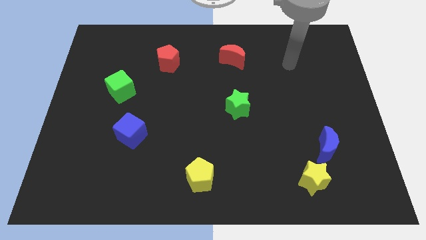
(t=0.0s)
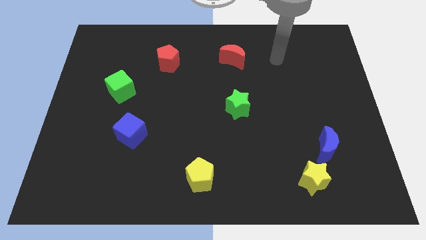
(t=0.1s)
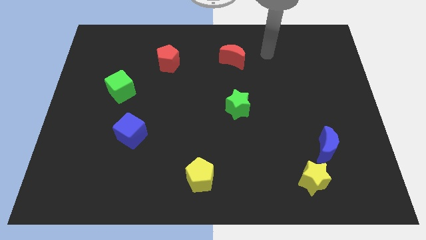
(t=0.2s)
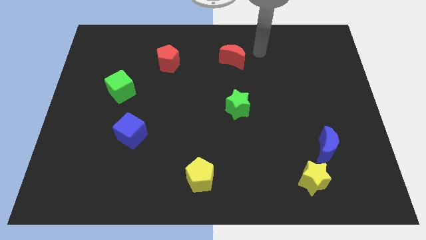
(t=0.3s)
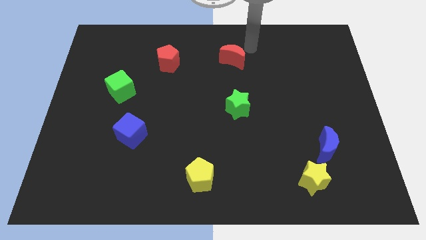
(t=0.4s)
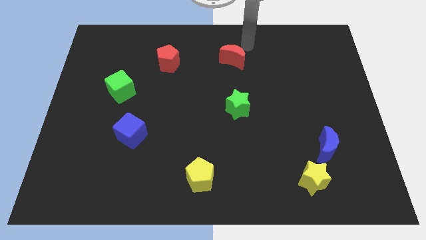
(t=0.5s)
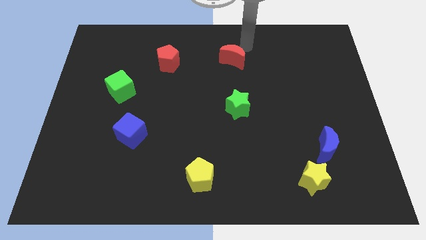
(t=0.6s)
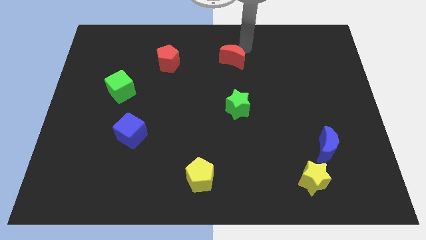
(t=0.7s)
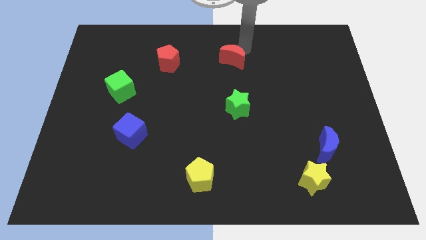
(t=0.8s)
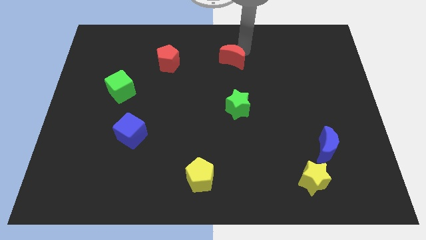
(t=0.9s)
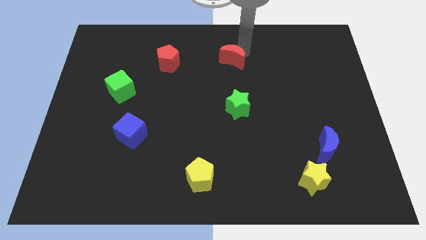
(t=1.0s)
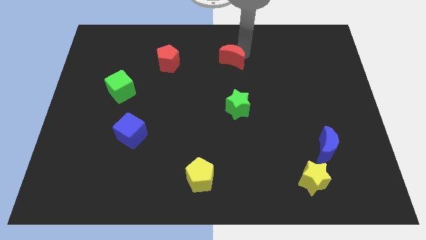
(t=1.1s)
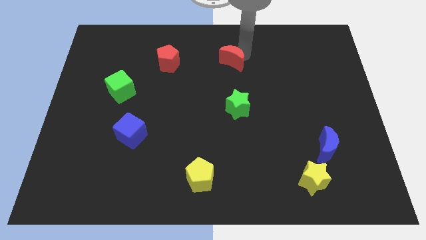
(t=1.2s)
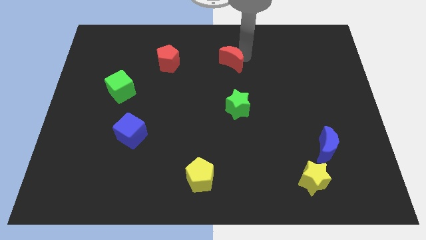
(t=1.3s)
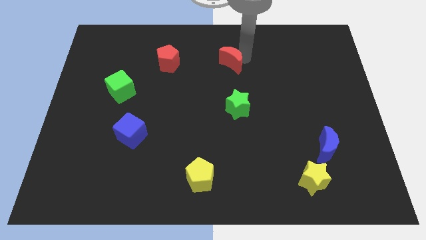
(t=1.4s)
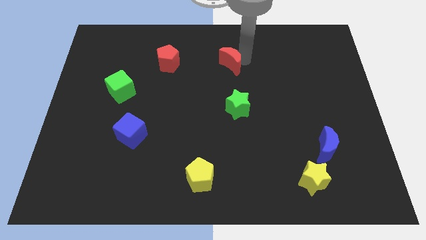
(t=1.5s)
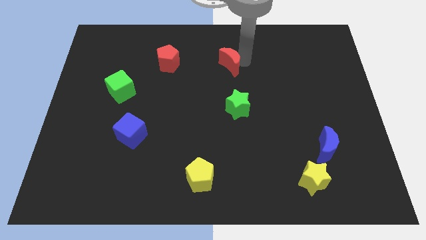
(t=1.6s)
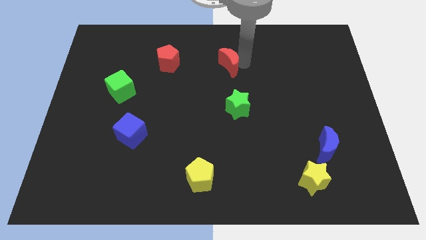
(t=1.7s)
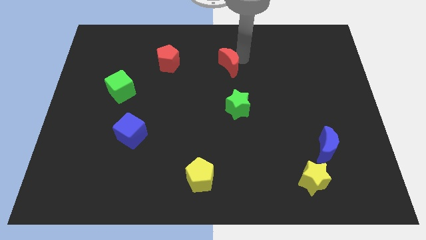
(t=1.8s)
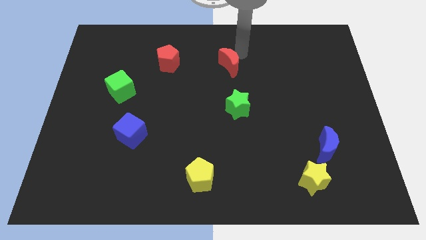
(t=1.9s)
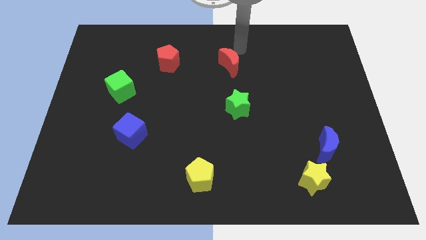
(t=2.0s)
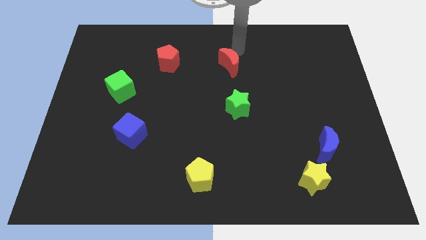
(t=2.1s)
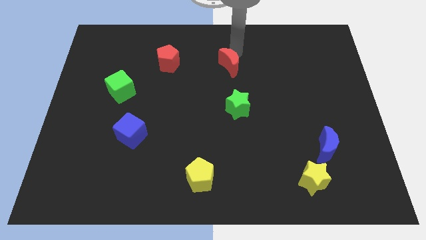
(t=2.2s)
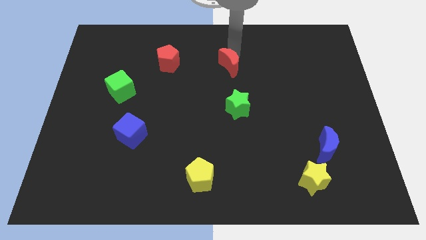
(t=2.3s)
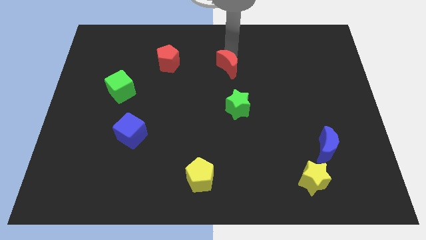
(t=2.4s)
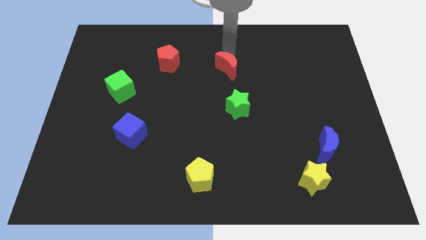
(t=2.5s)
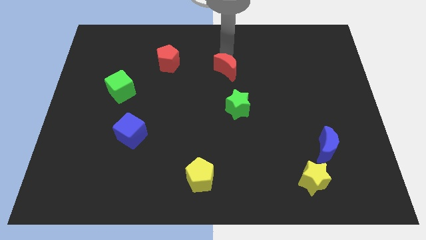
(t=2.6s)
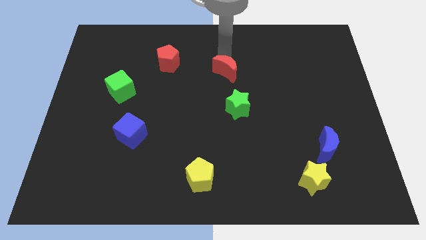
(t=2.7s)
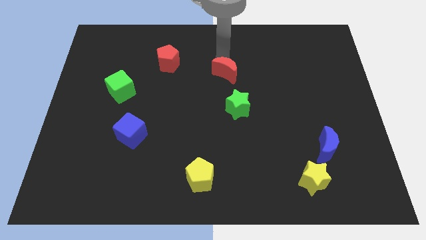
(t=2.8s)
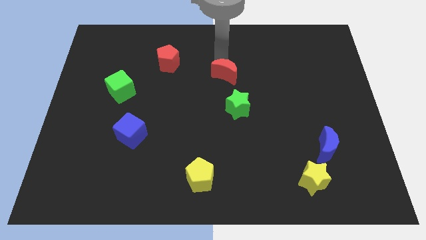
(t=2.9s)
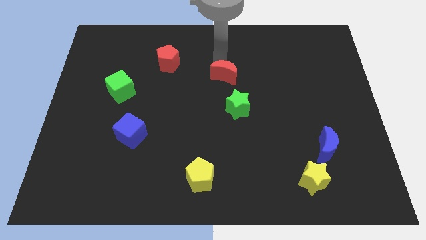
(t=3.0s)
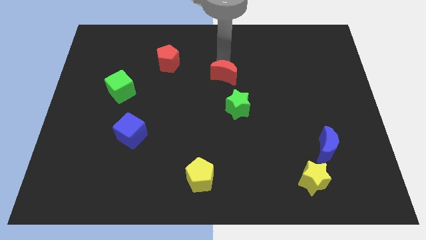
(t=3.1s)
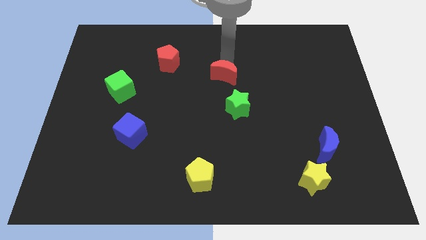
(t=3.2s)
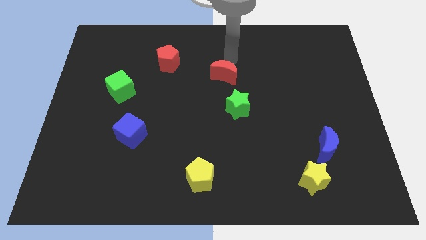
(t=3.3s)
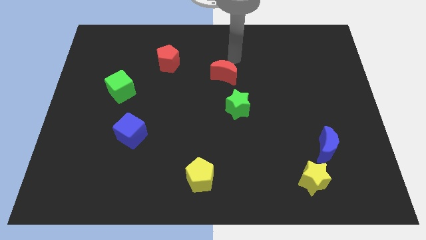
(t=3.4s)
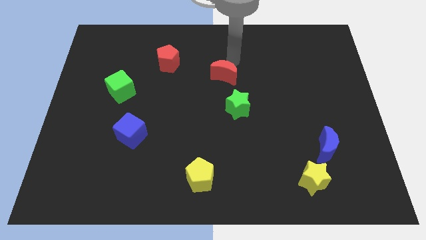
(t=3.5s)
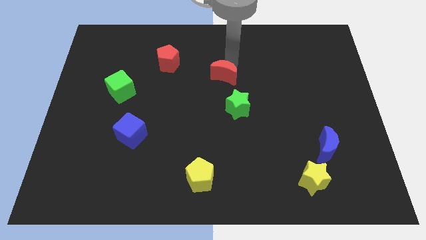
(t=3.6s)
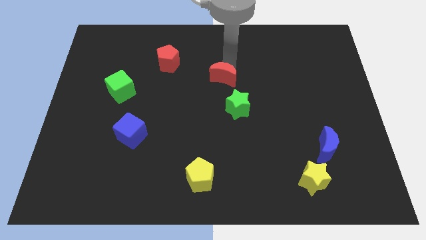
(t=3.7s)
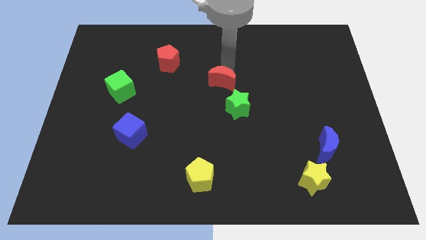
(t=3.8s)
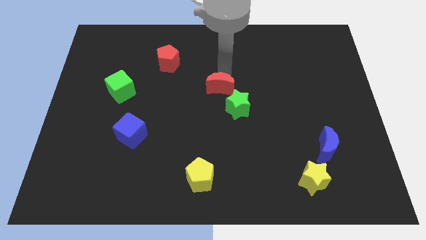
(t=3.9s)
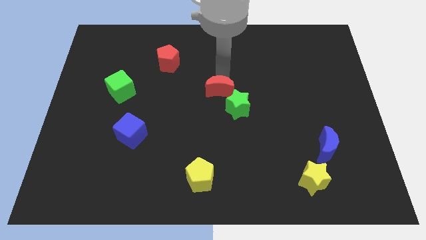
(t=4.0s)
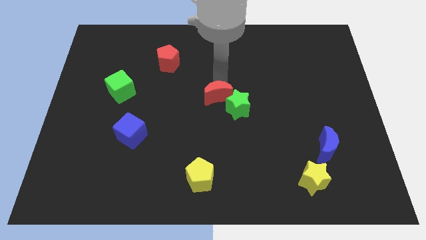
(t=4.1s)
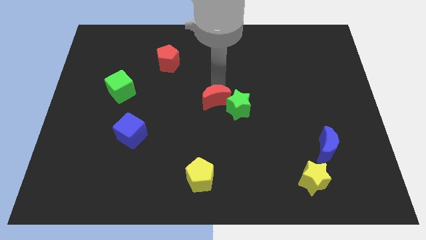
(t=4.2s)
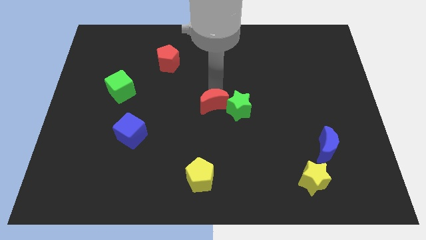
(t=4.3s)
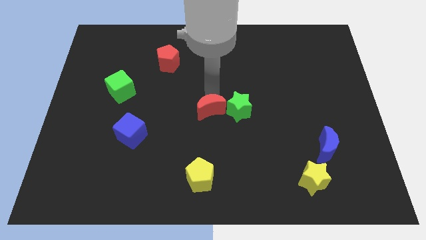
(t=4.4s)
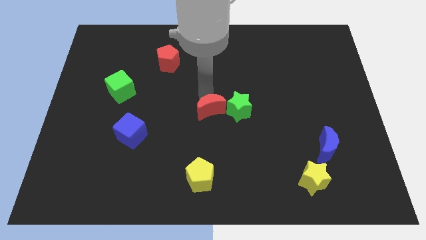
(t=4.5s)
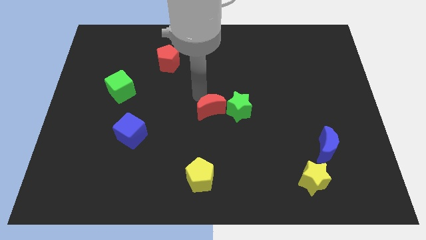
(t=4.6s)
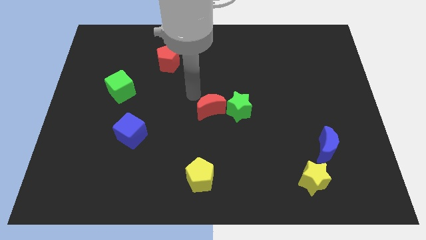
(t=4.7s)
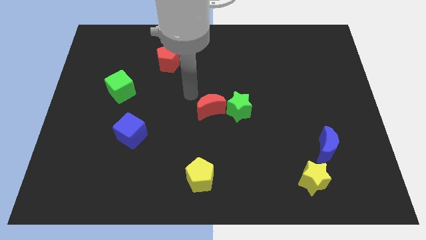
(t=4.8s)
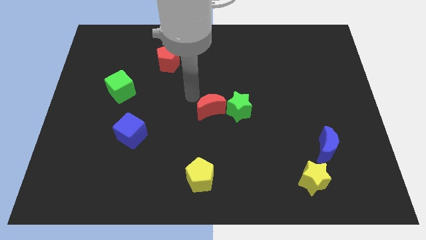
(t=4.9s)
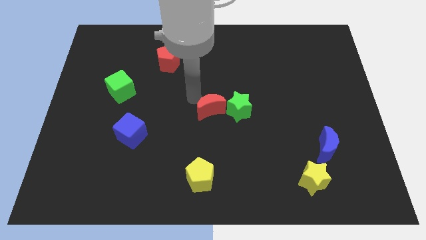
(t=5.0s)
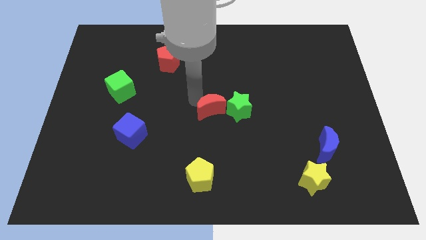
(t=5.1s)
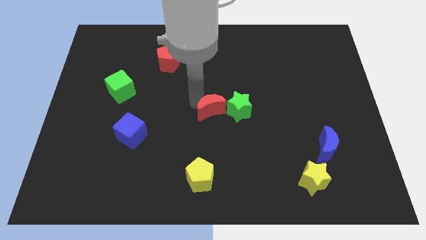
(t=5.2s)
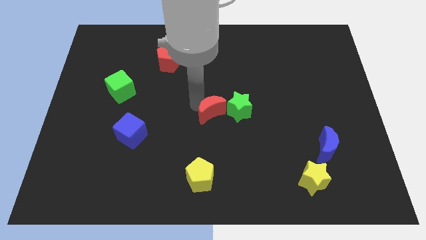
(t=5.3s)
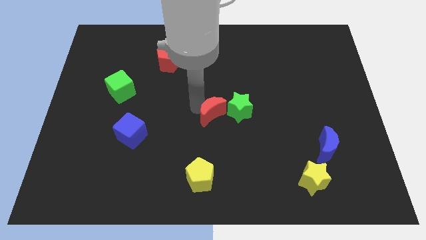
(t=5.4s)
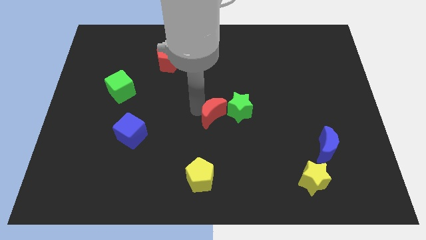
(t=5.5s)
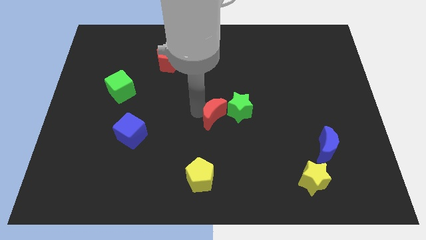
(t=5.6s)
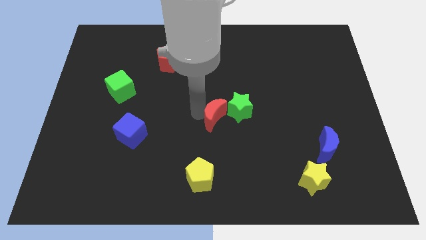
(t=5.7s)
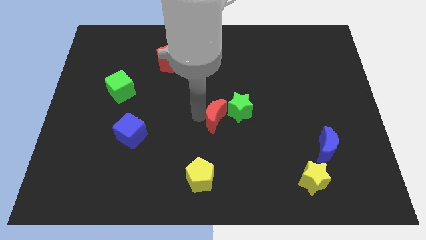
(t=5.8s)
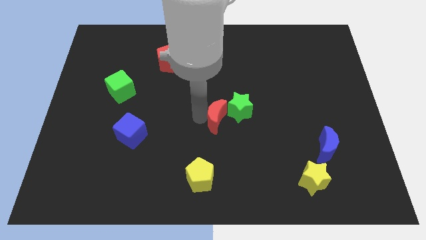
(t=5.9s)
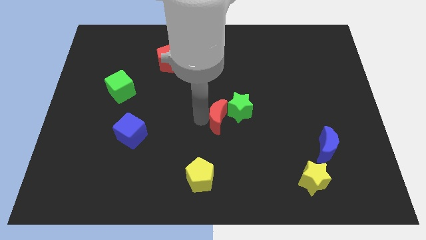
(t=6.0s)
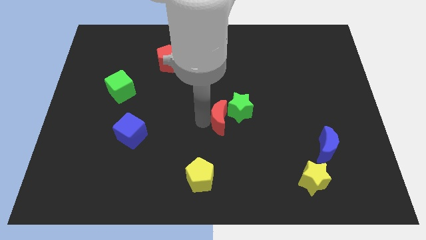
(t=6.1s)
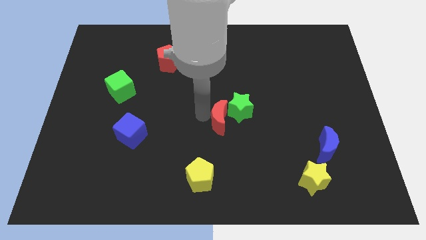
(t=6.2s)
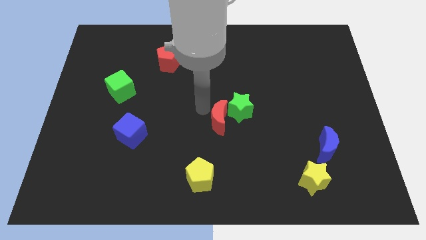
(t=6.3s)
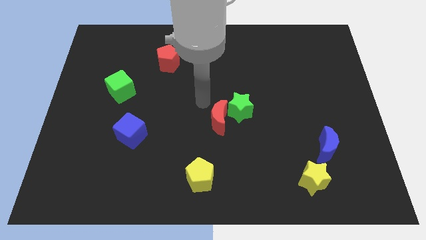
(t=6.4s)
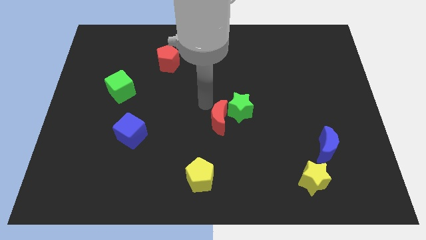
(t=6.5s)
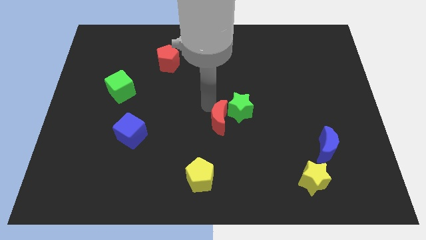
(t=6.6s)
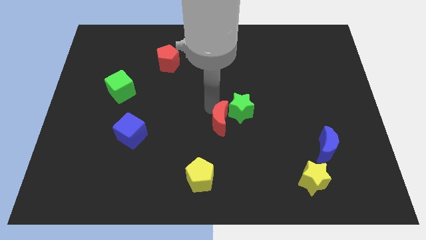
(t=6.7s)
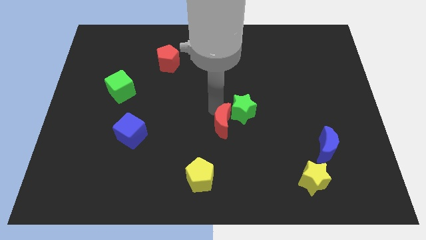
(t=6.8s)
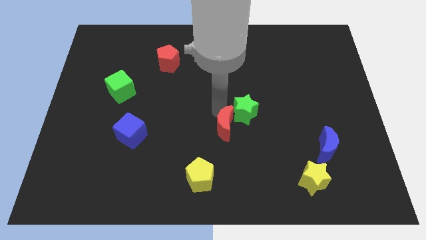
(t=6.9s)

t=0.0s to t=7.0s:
slide the red moon to the bottom side of the green star

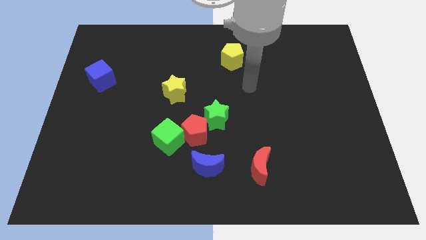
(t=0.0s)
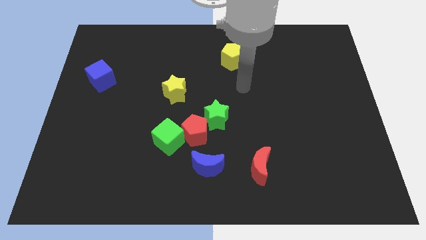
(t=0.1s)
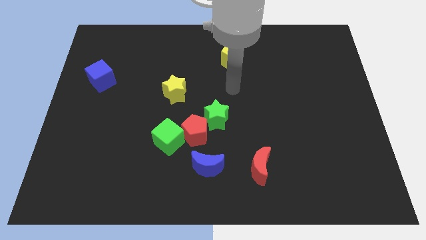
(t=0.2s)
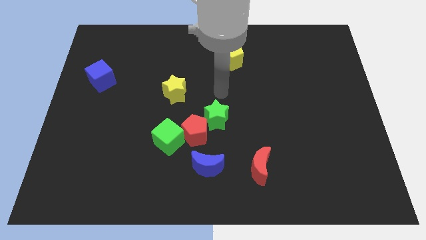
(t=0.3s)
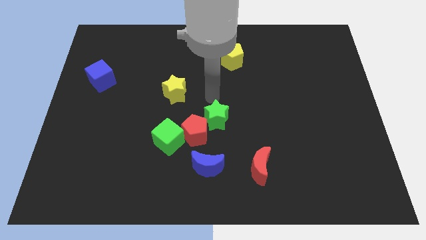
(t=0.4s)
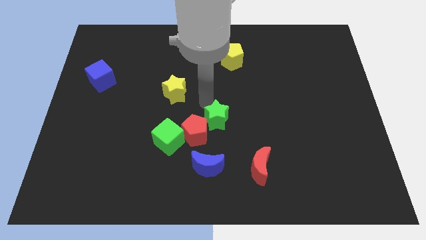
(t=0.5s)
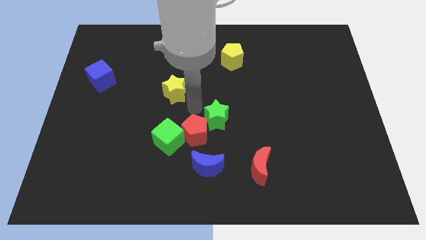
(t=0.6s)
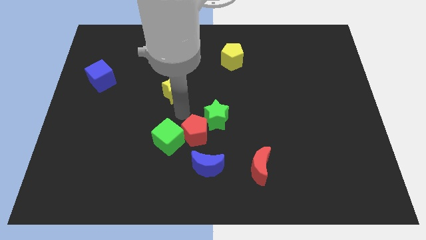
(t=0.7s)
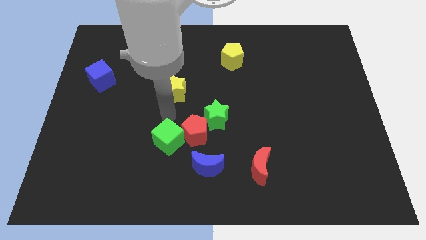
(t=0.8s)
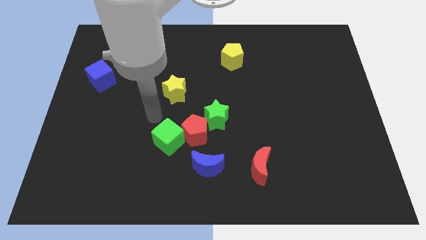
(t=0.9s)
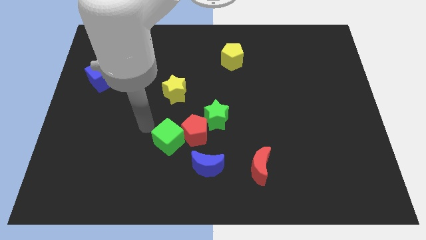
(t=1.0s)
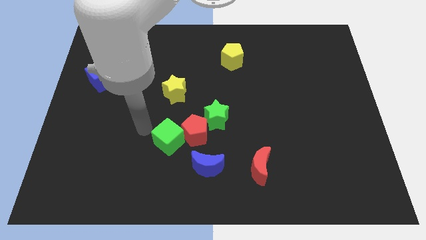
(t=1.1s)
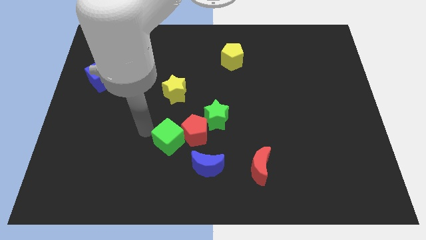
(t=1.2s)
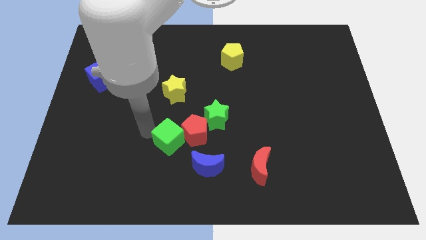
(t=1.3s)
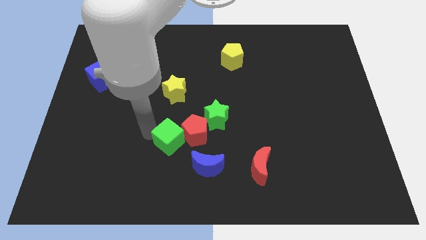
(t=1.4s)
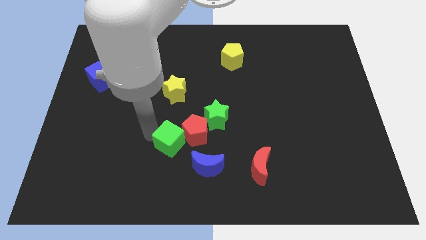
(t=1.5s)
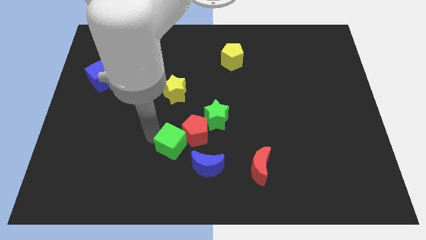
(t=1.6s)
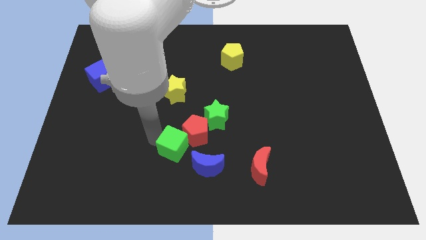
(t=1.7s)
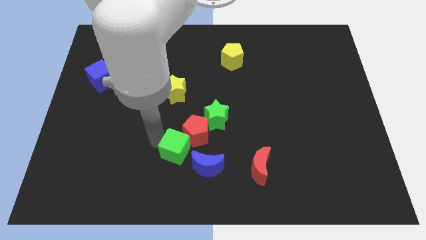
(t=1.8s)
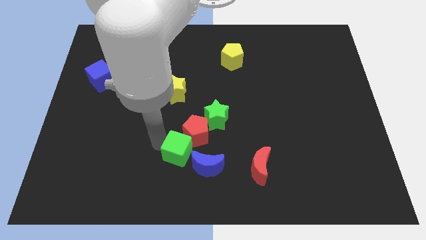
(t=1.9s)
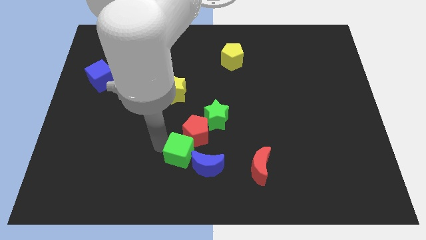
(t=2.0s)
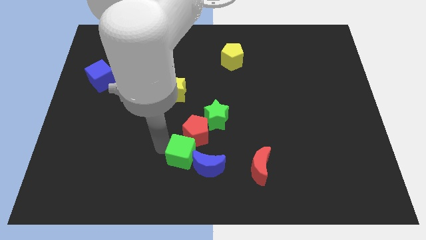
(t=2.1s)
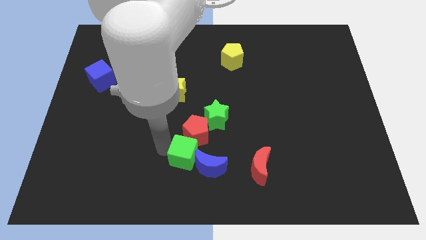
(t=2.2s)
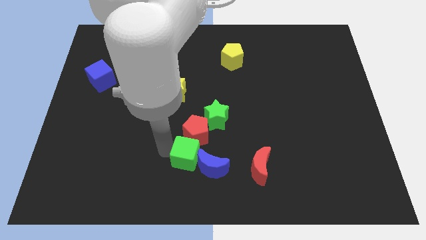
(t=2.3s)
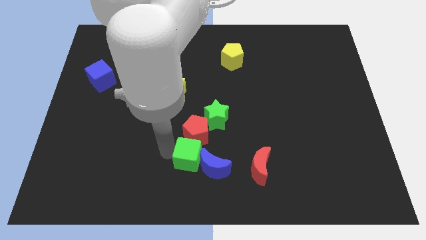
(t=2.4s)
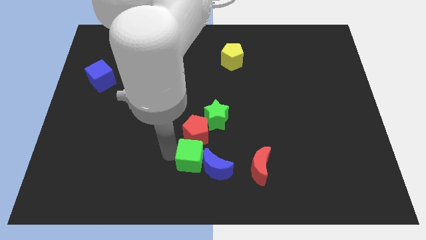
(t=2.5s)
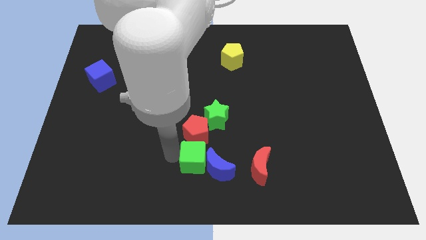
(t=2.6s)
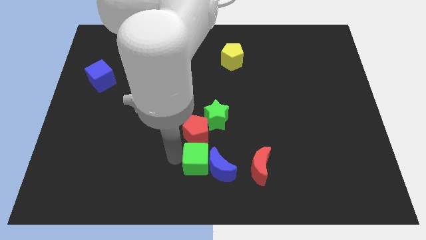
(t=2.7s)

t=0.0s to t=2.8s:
move the green cube to the bottom right side of the red pentagon
